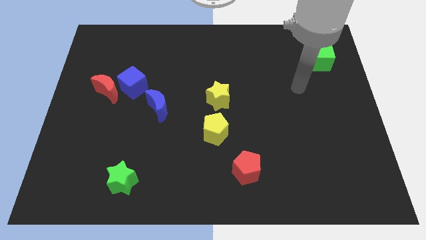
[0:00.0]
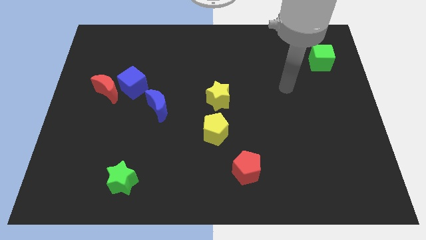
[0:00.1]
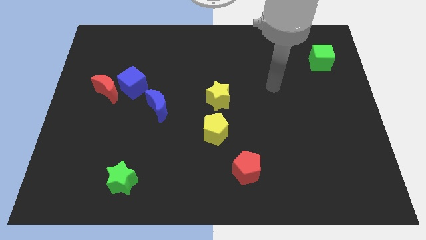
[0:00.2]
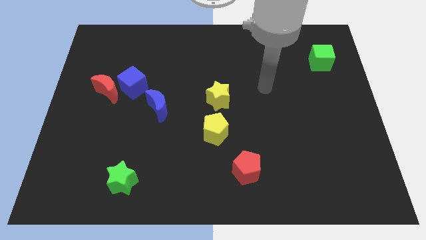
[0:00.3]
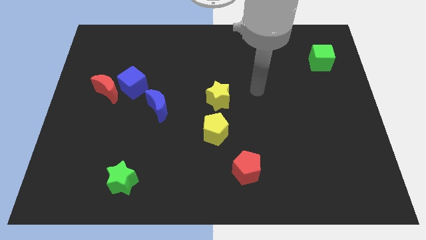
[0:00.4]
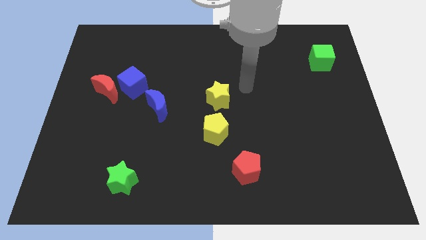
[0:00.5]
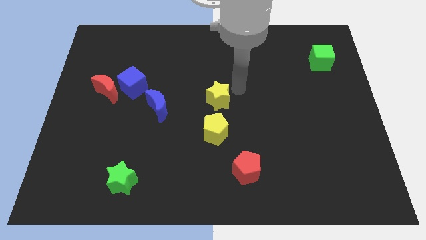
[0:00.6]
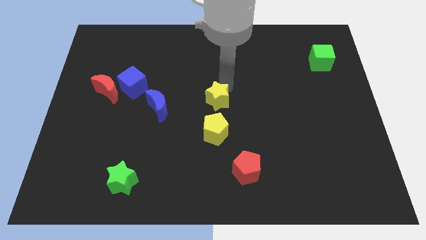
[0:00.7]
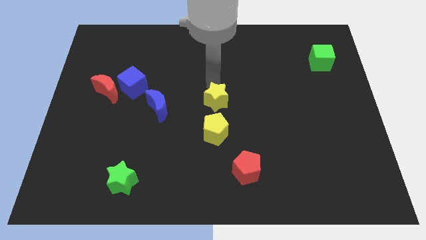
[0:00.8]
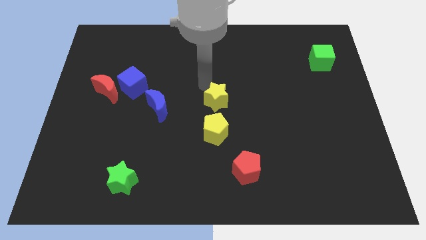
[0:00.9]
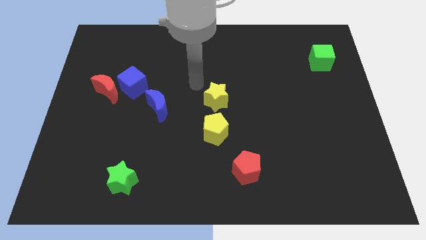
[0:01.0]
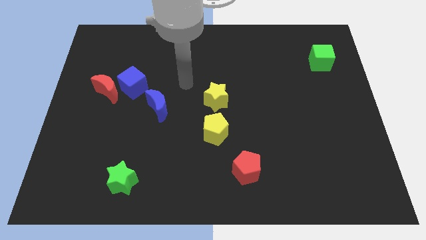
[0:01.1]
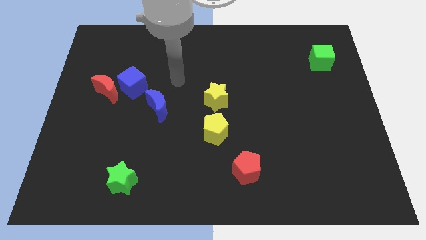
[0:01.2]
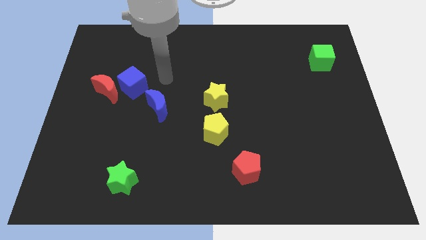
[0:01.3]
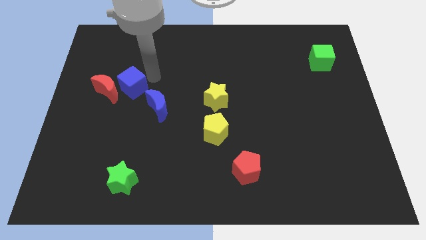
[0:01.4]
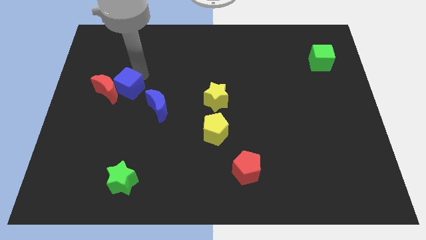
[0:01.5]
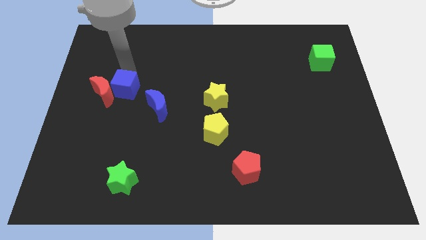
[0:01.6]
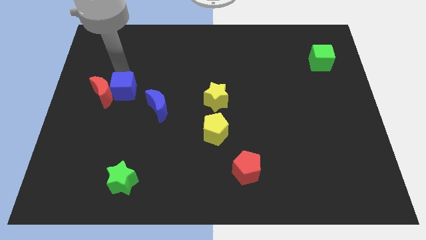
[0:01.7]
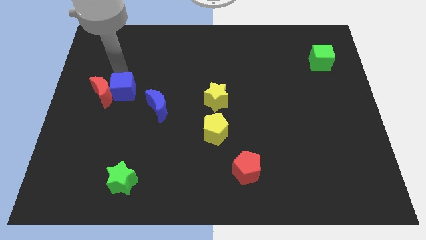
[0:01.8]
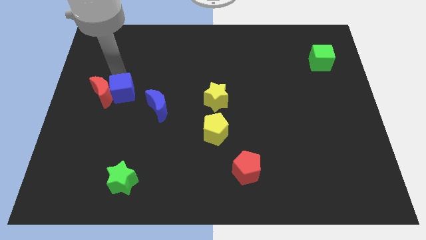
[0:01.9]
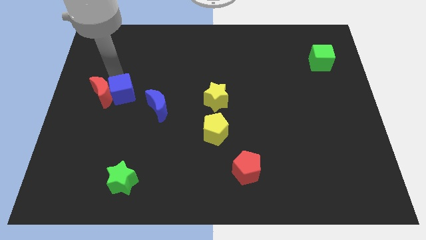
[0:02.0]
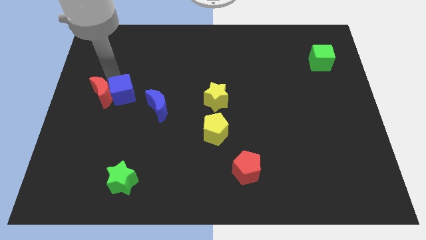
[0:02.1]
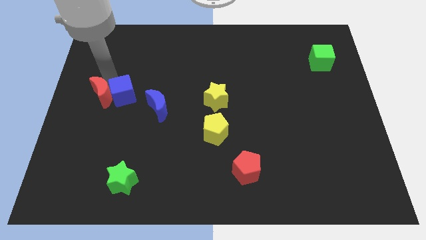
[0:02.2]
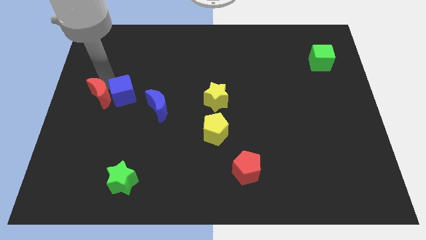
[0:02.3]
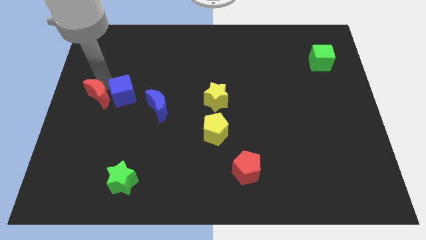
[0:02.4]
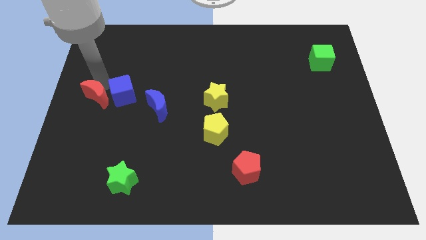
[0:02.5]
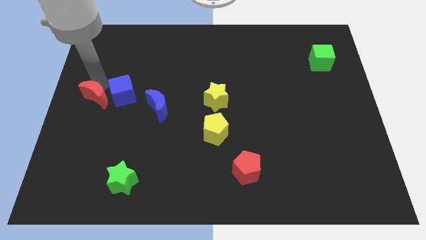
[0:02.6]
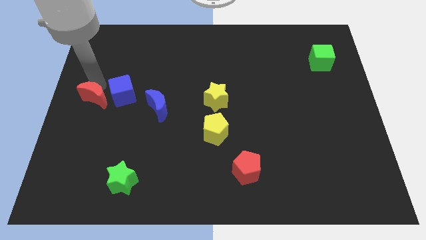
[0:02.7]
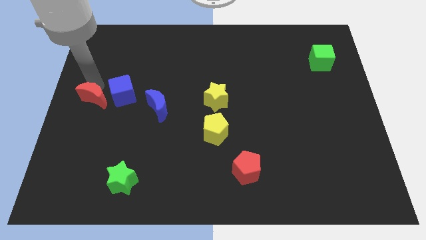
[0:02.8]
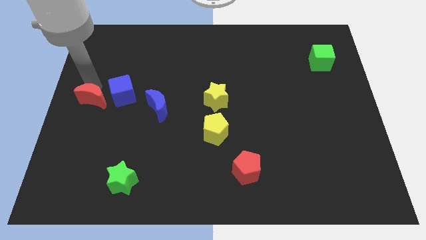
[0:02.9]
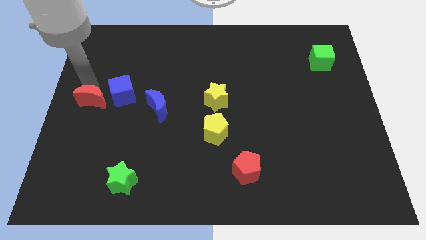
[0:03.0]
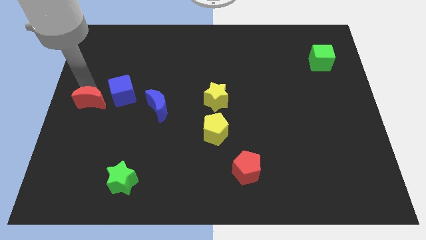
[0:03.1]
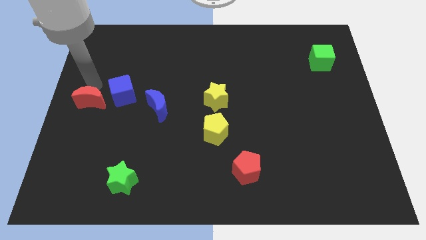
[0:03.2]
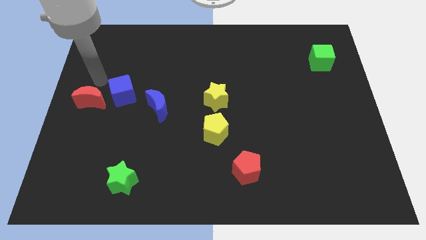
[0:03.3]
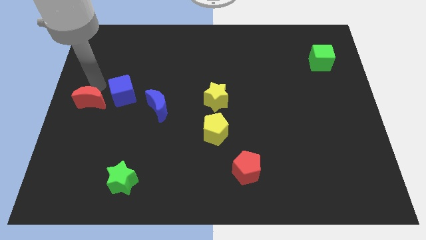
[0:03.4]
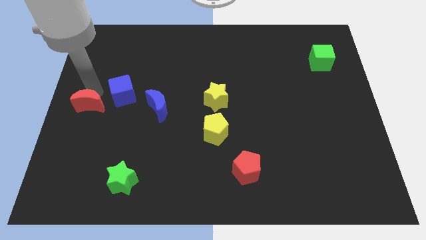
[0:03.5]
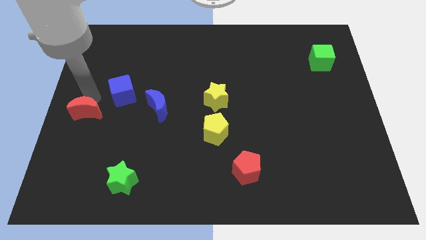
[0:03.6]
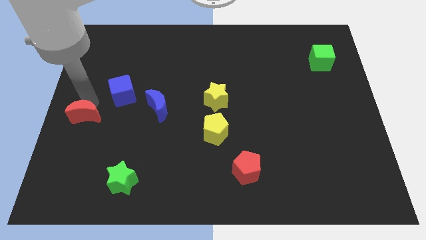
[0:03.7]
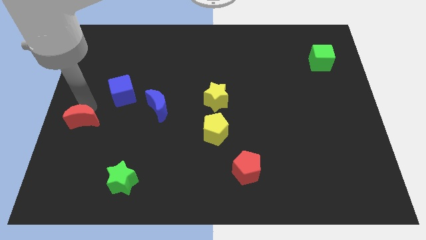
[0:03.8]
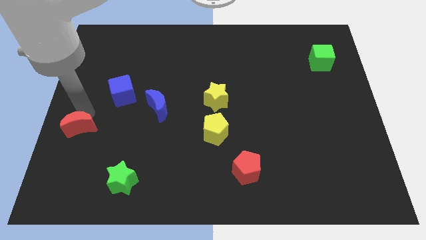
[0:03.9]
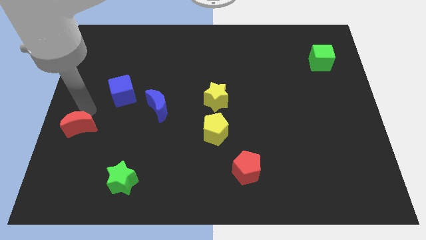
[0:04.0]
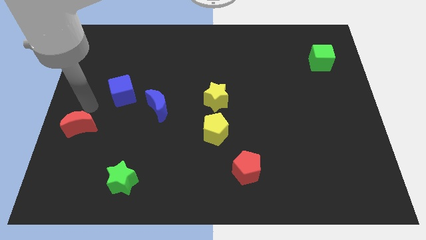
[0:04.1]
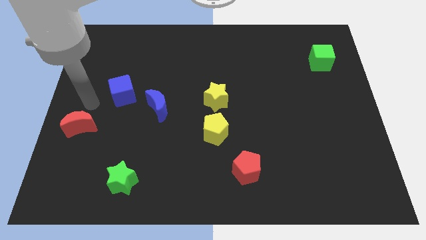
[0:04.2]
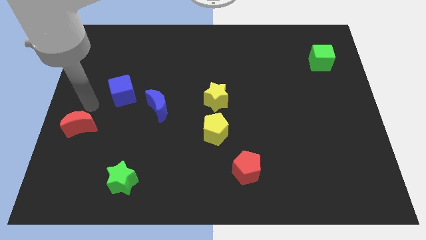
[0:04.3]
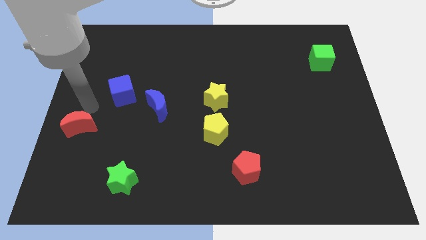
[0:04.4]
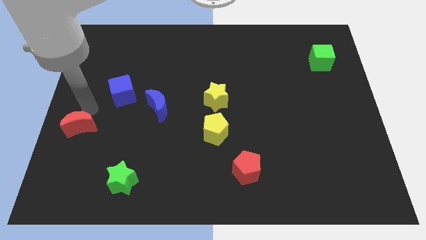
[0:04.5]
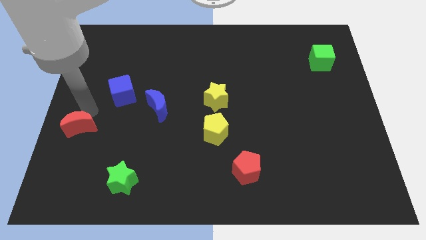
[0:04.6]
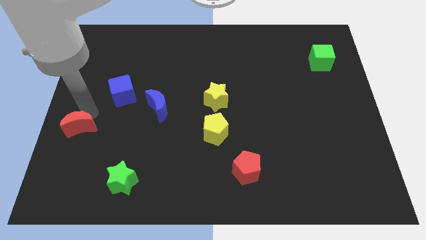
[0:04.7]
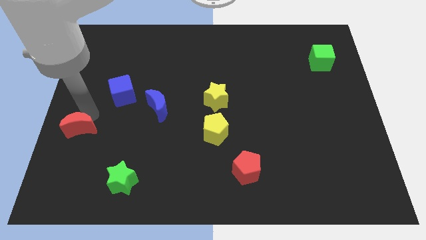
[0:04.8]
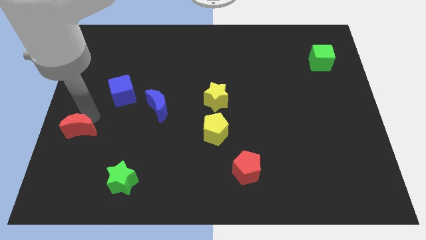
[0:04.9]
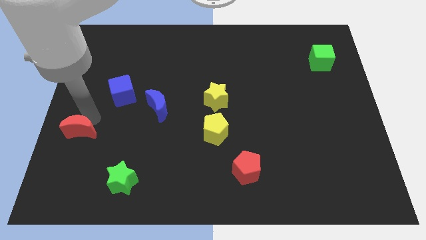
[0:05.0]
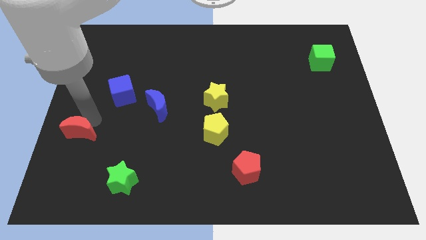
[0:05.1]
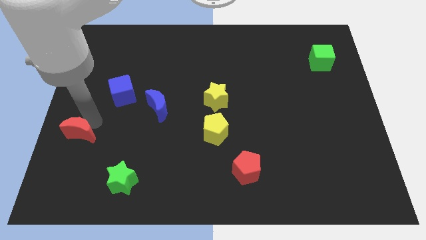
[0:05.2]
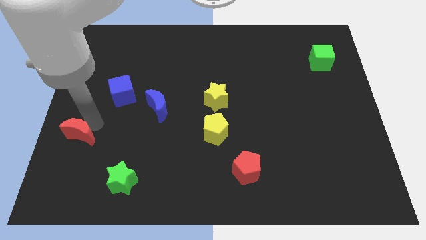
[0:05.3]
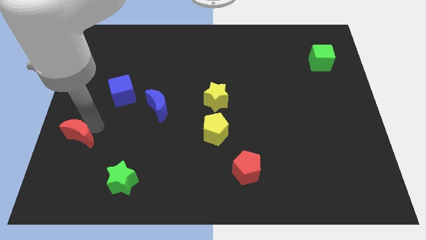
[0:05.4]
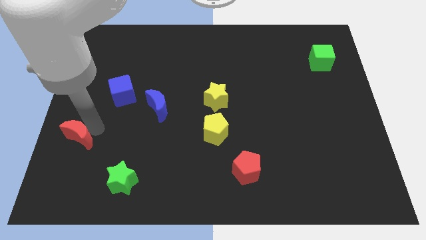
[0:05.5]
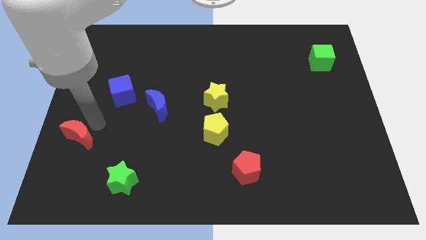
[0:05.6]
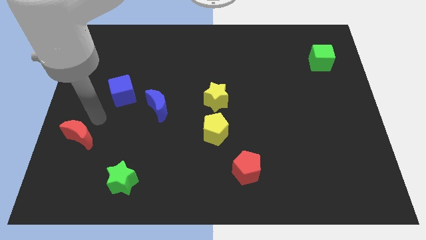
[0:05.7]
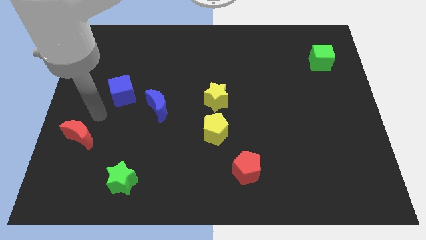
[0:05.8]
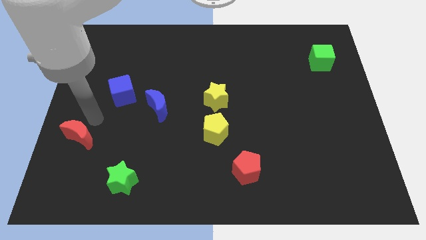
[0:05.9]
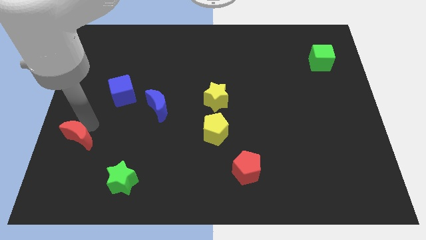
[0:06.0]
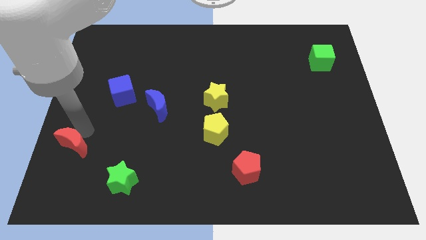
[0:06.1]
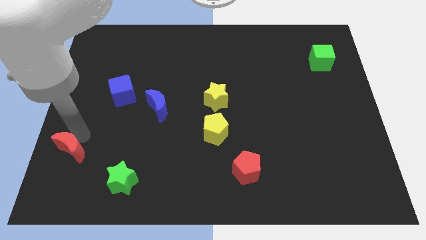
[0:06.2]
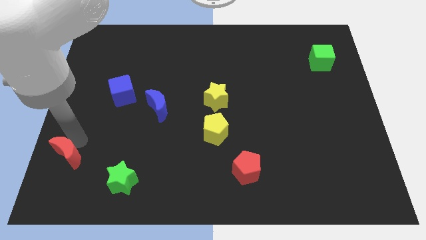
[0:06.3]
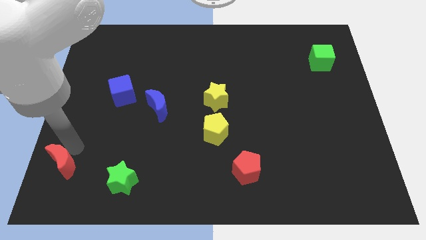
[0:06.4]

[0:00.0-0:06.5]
push the red moon to the lower left corner
